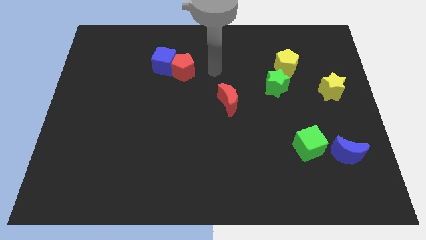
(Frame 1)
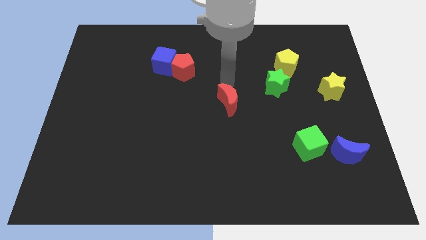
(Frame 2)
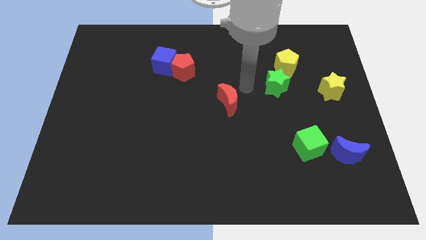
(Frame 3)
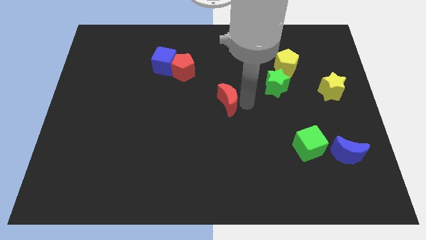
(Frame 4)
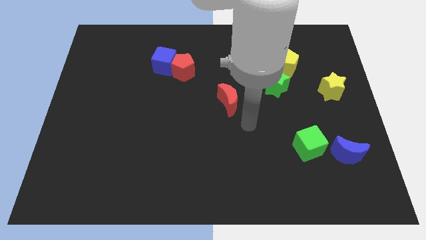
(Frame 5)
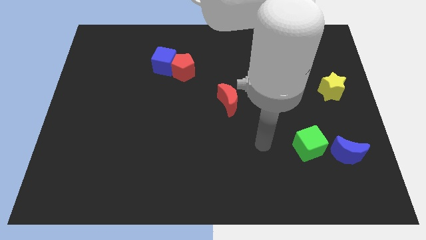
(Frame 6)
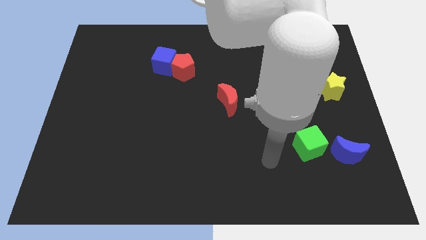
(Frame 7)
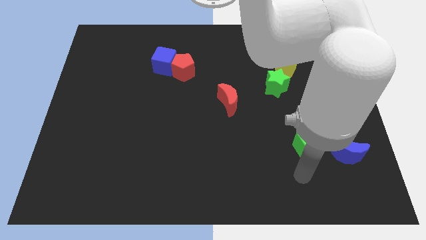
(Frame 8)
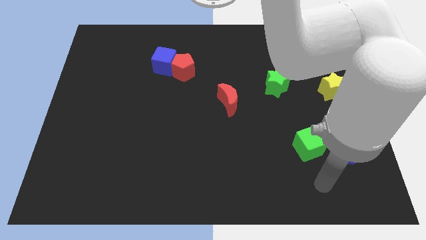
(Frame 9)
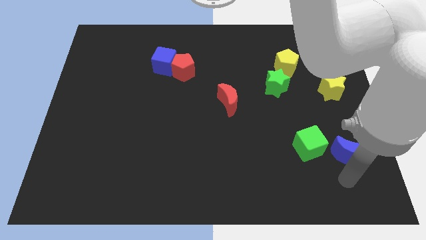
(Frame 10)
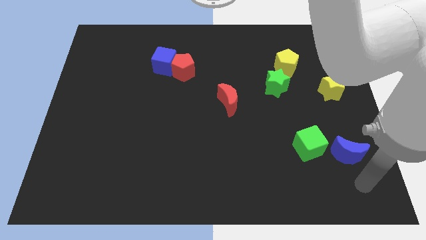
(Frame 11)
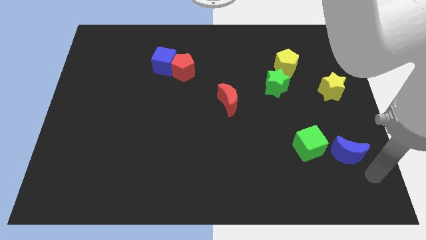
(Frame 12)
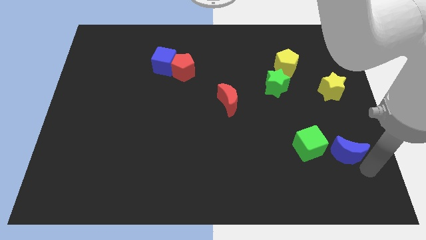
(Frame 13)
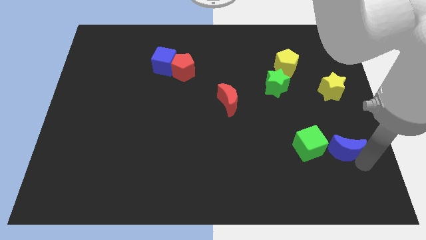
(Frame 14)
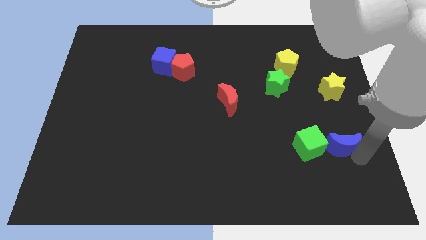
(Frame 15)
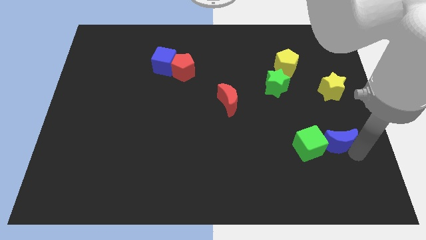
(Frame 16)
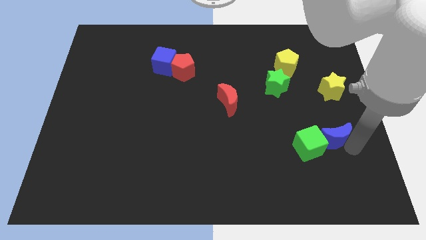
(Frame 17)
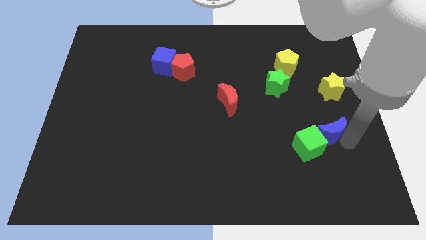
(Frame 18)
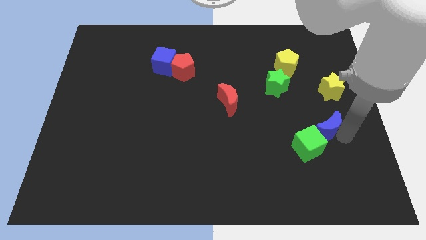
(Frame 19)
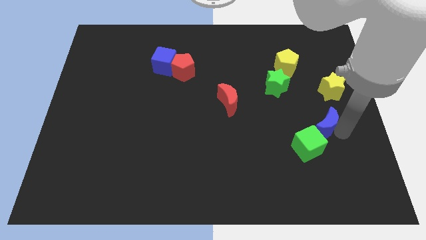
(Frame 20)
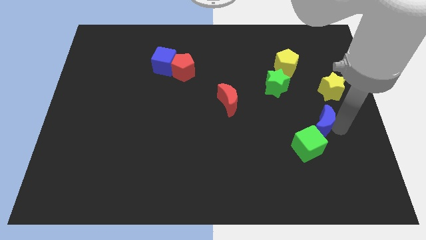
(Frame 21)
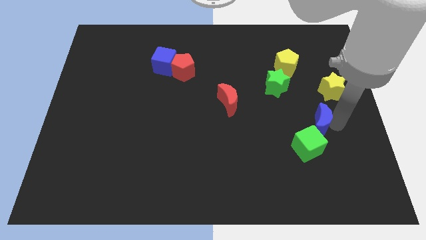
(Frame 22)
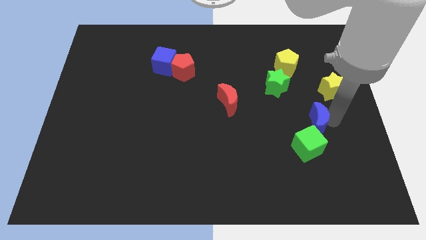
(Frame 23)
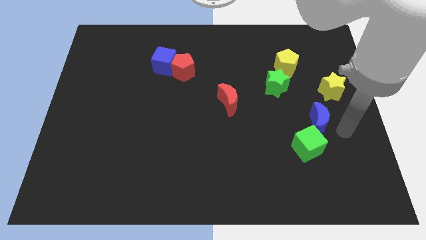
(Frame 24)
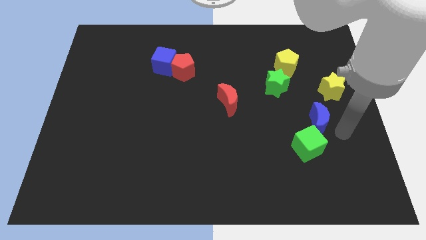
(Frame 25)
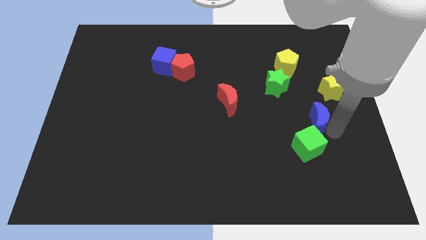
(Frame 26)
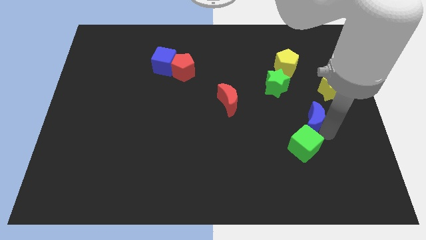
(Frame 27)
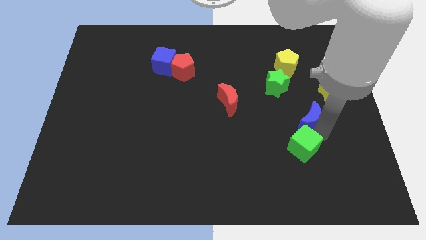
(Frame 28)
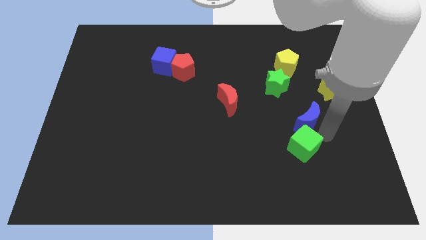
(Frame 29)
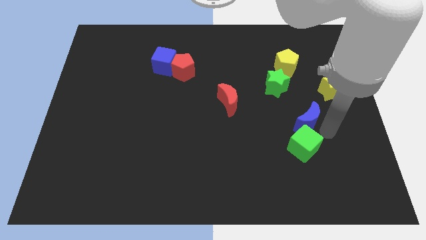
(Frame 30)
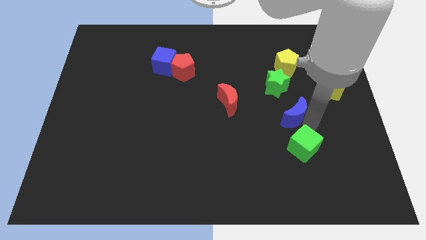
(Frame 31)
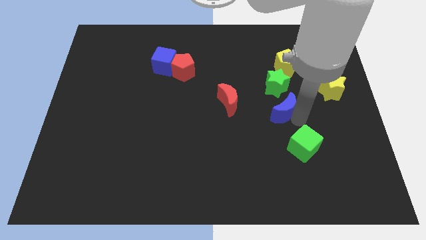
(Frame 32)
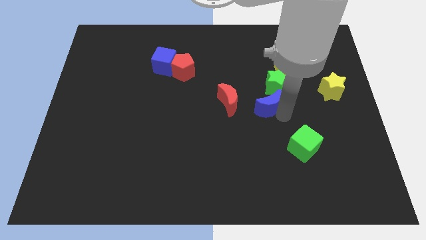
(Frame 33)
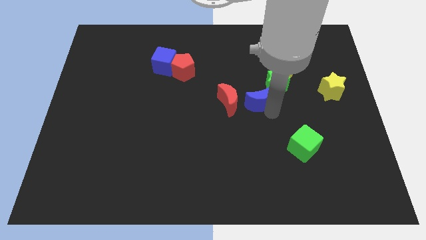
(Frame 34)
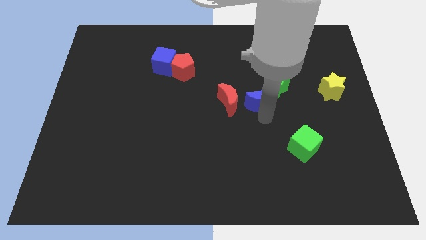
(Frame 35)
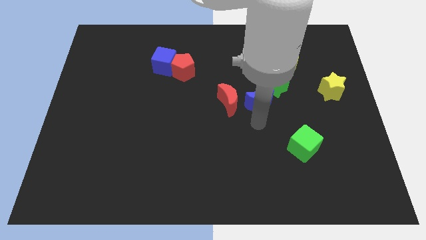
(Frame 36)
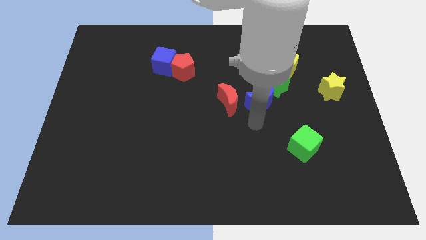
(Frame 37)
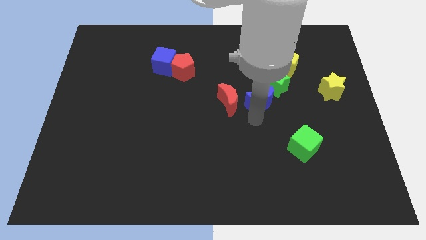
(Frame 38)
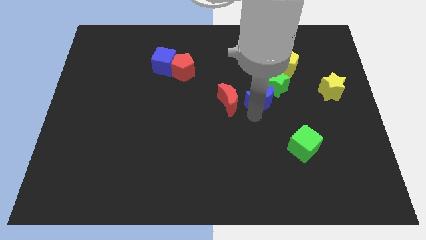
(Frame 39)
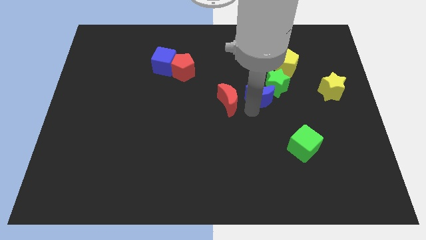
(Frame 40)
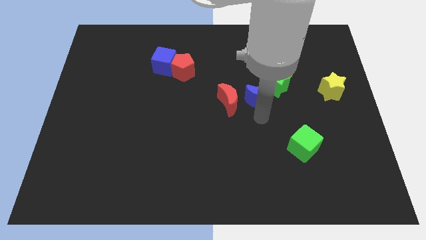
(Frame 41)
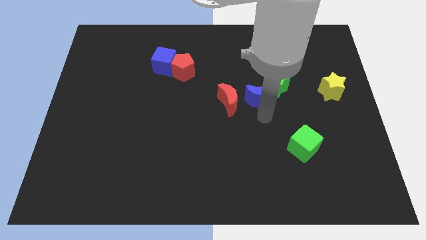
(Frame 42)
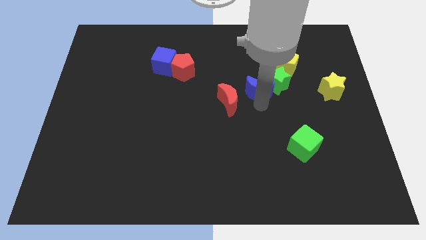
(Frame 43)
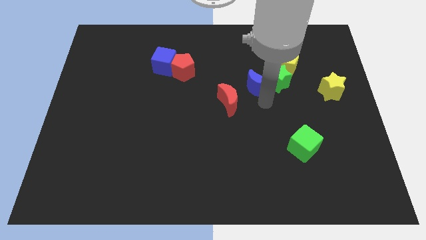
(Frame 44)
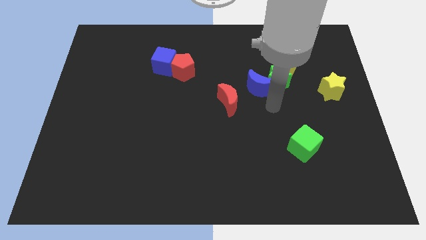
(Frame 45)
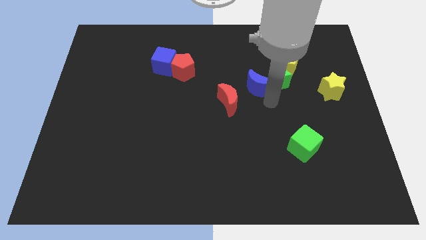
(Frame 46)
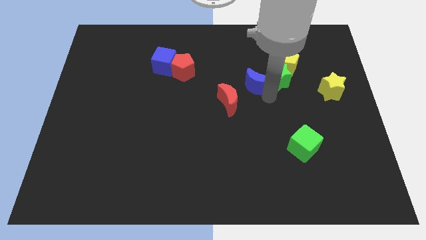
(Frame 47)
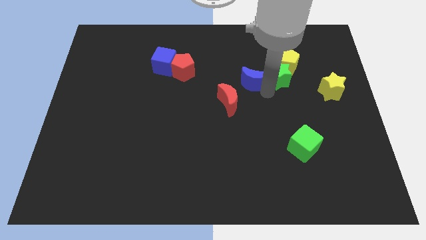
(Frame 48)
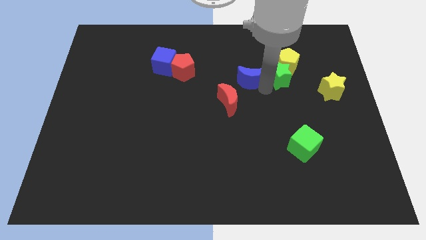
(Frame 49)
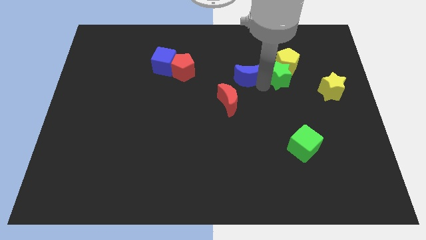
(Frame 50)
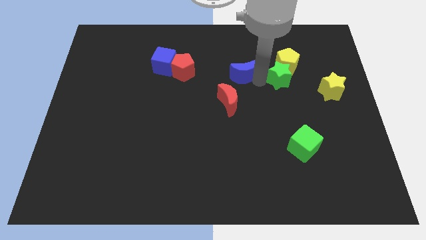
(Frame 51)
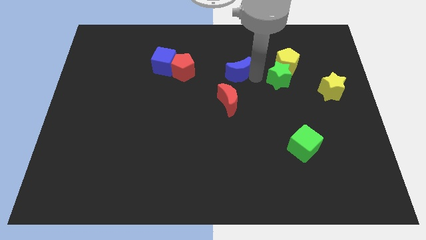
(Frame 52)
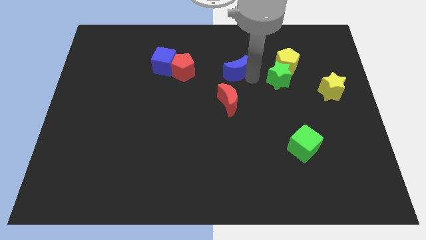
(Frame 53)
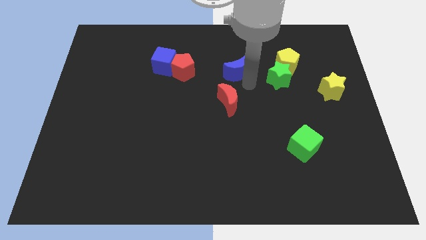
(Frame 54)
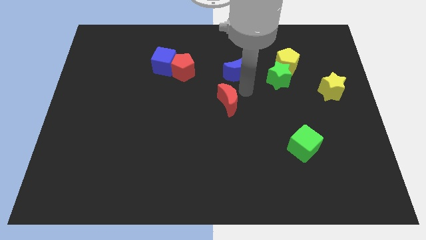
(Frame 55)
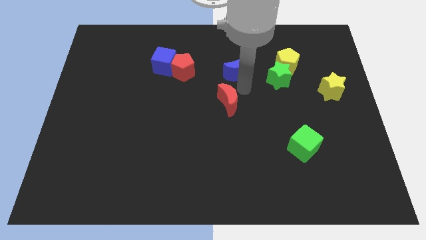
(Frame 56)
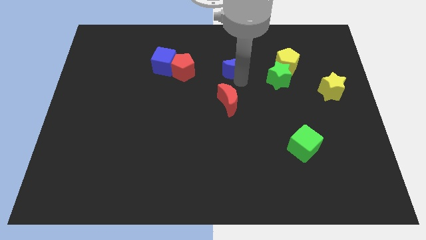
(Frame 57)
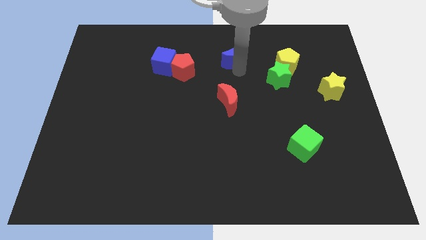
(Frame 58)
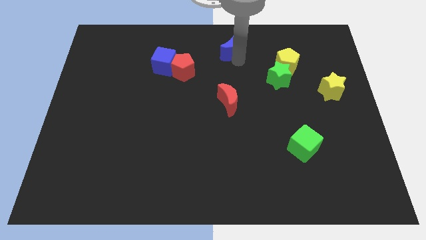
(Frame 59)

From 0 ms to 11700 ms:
move the blue moon to the top

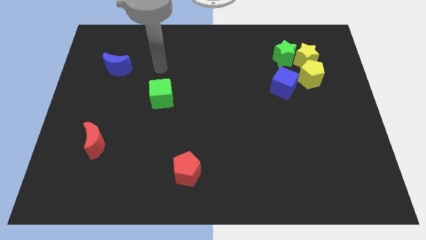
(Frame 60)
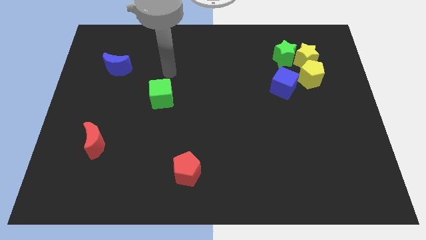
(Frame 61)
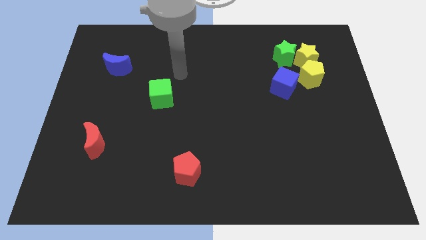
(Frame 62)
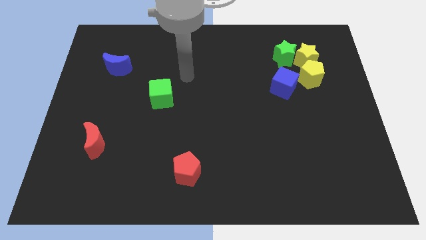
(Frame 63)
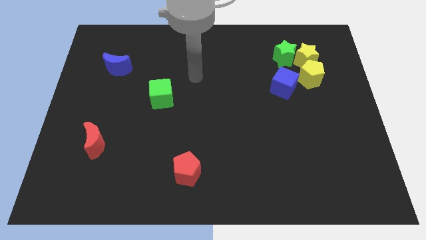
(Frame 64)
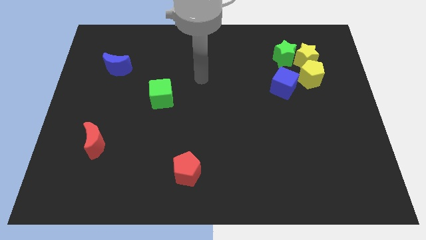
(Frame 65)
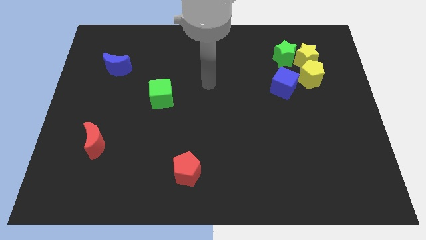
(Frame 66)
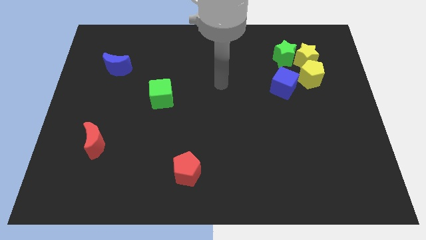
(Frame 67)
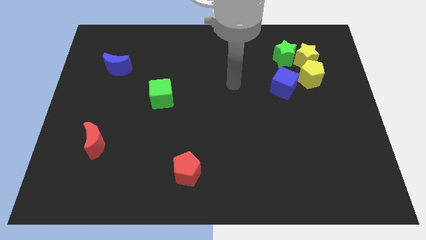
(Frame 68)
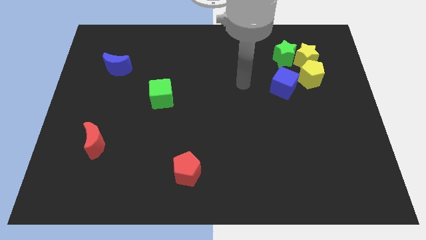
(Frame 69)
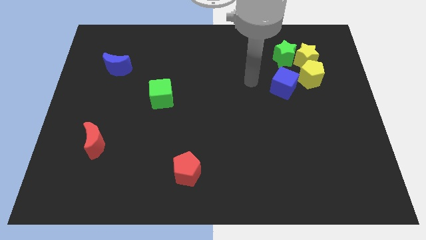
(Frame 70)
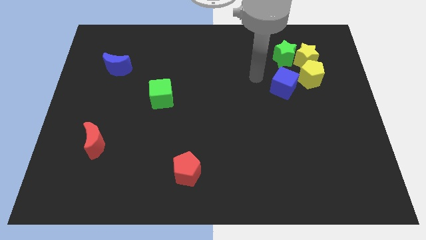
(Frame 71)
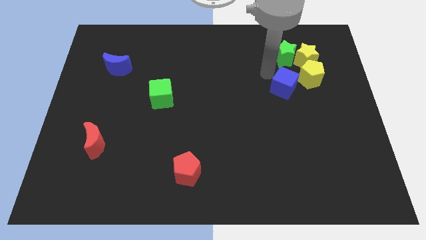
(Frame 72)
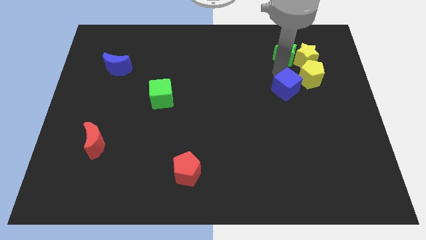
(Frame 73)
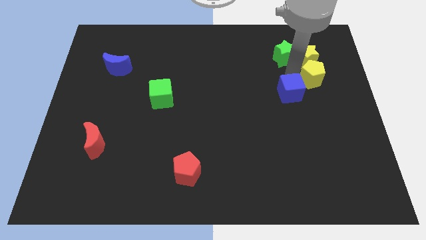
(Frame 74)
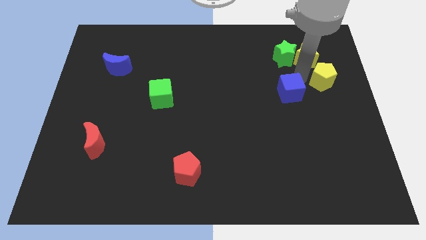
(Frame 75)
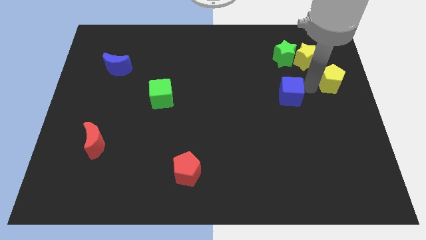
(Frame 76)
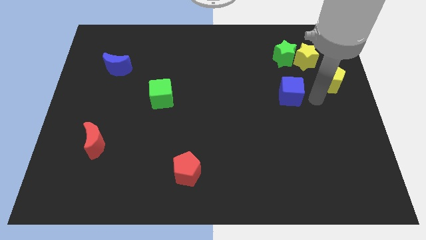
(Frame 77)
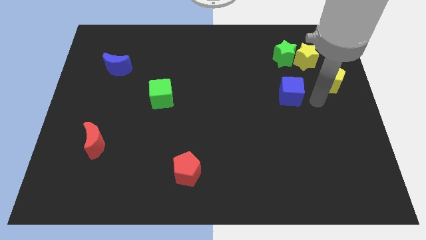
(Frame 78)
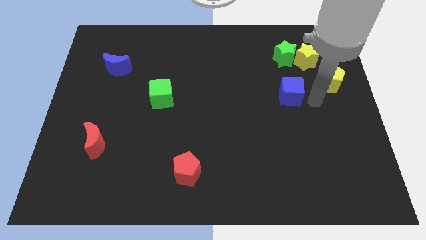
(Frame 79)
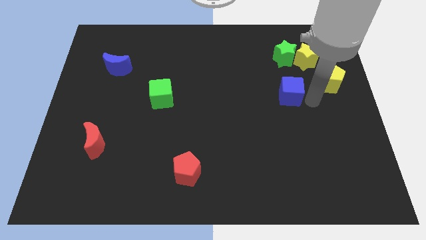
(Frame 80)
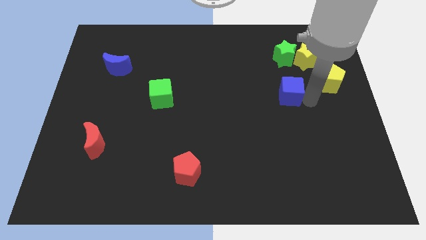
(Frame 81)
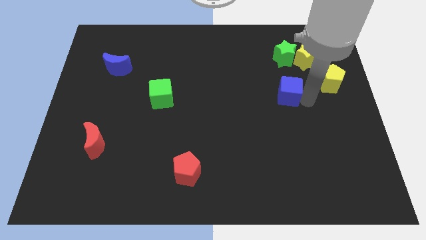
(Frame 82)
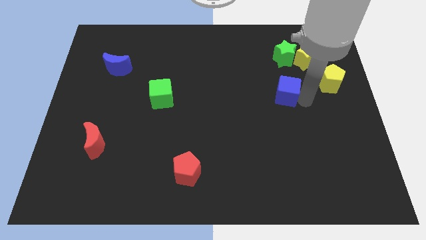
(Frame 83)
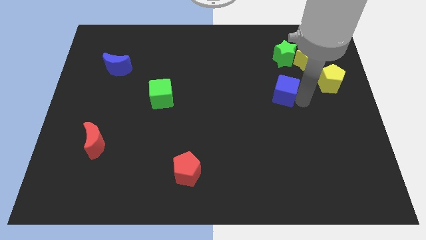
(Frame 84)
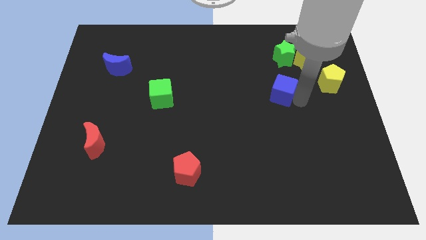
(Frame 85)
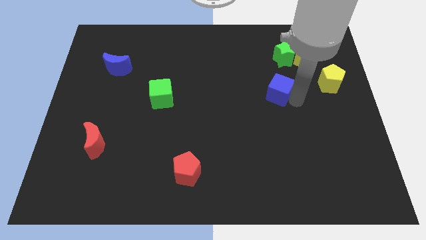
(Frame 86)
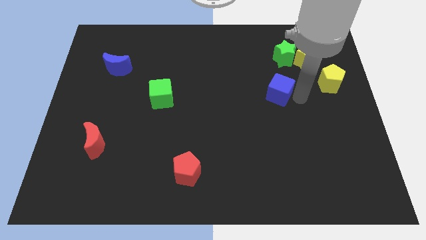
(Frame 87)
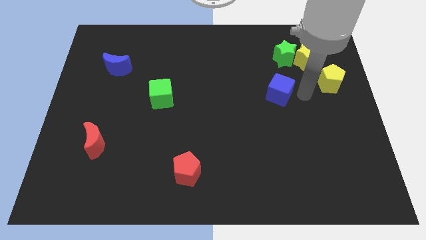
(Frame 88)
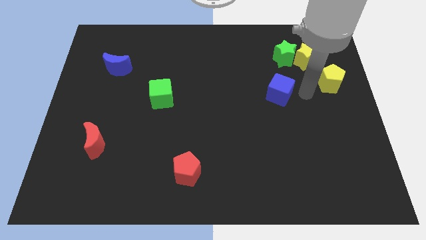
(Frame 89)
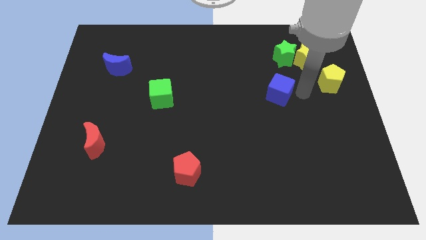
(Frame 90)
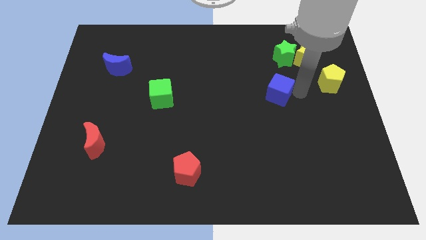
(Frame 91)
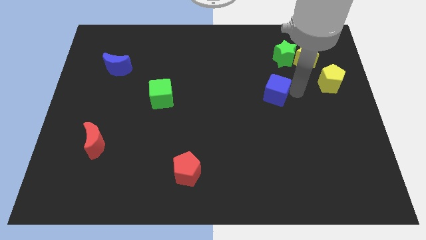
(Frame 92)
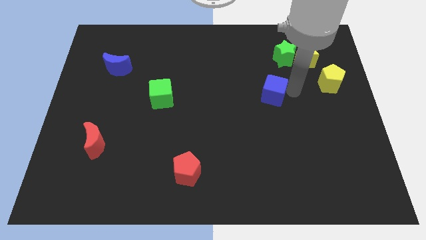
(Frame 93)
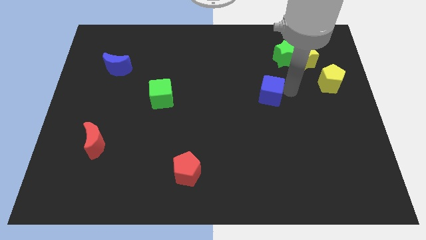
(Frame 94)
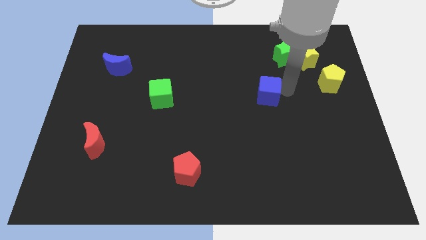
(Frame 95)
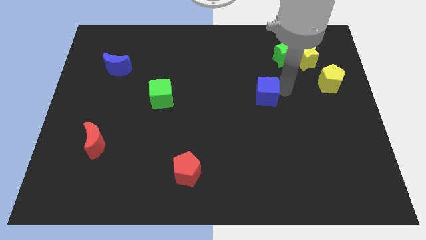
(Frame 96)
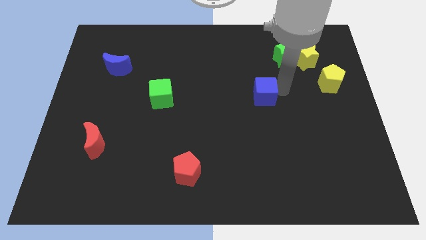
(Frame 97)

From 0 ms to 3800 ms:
push the blue cube to the middle
